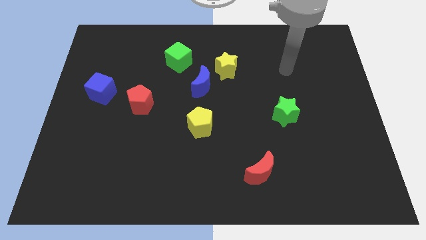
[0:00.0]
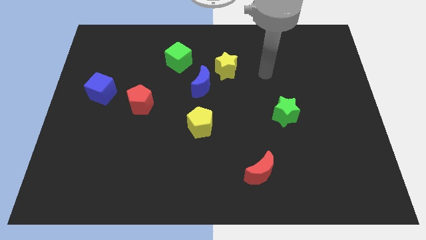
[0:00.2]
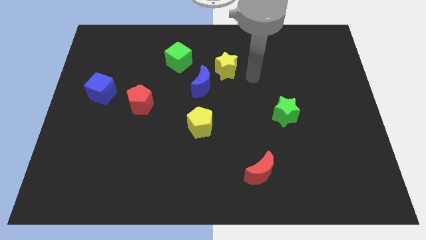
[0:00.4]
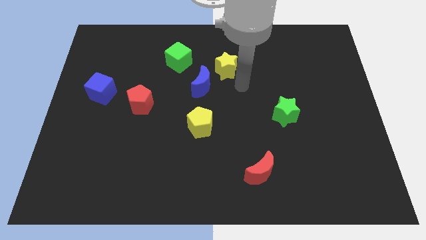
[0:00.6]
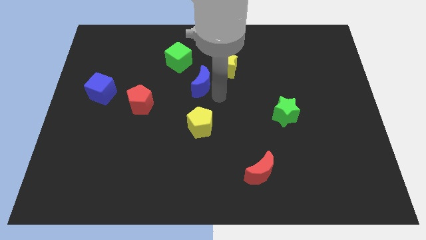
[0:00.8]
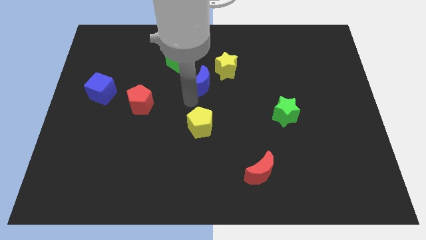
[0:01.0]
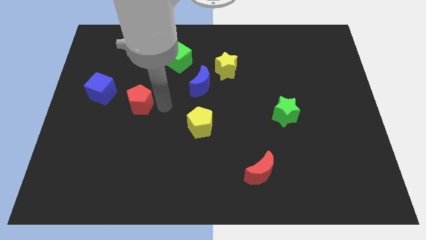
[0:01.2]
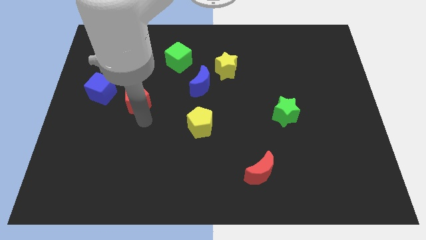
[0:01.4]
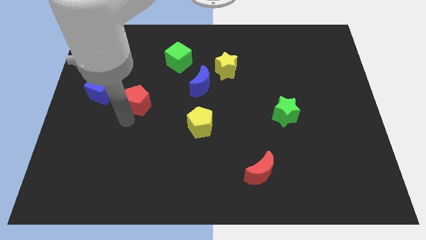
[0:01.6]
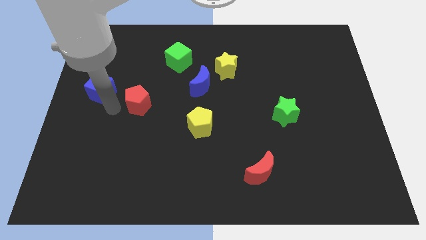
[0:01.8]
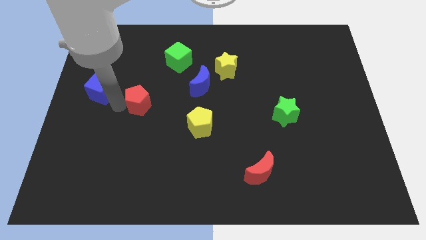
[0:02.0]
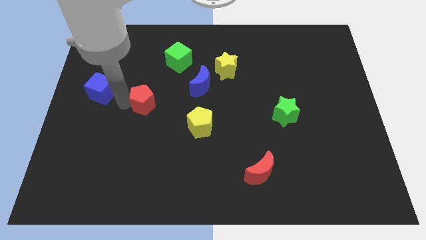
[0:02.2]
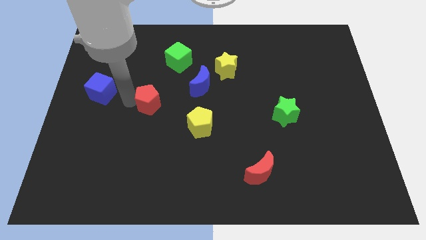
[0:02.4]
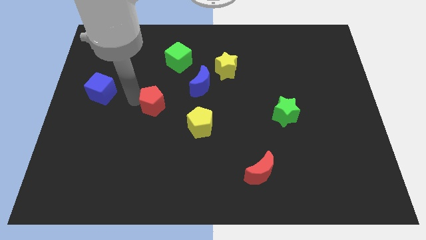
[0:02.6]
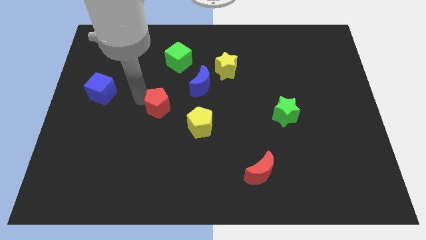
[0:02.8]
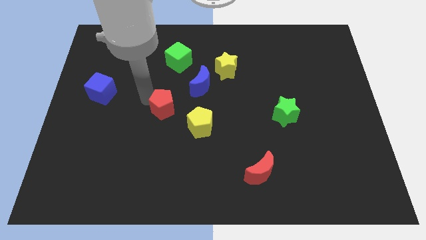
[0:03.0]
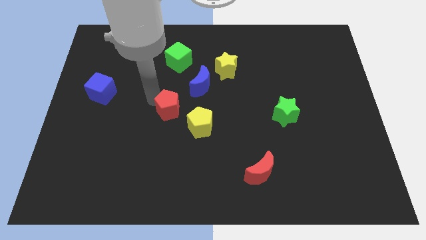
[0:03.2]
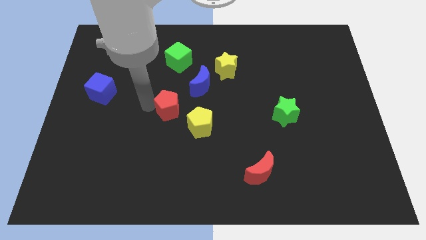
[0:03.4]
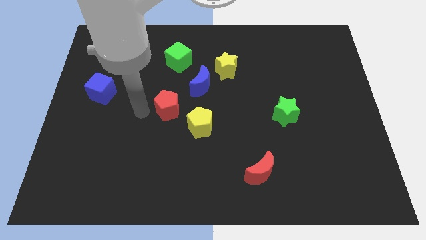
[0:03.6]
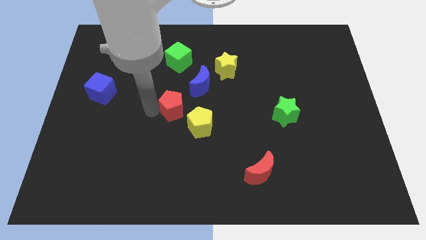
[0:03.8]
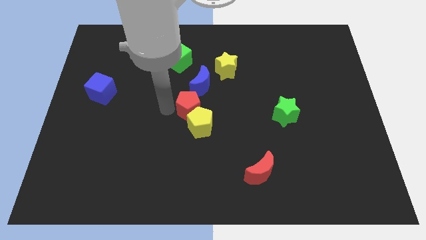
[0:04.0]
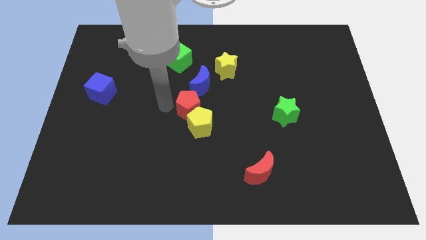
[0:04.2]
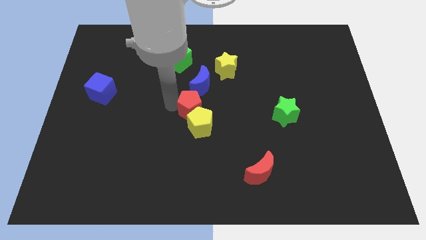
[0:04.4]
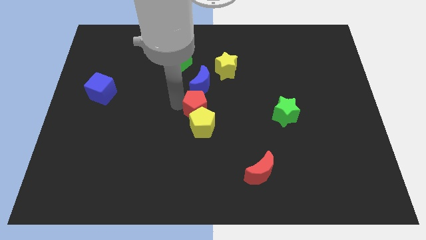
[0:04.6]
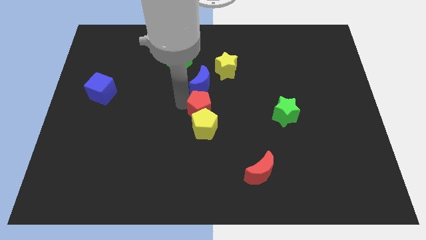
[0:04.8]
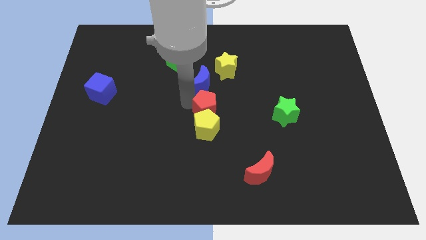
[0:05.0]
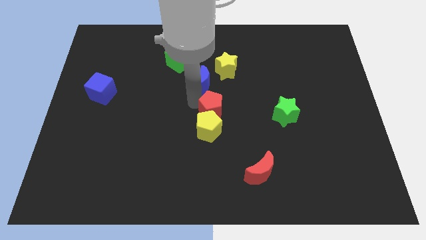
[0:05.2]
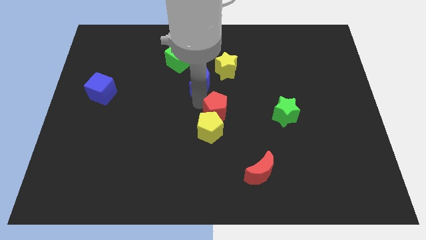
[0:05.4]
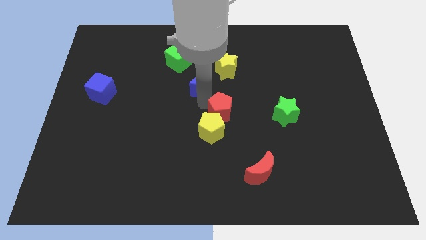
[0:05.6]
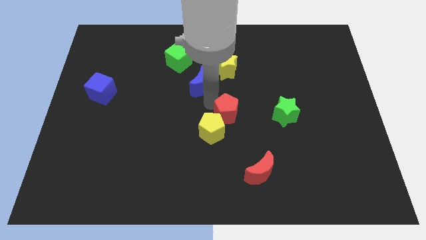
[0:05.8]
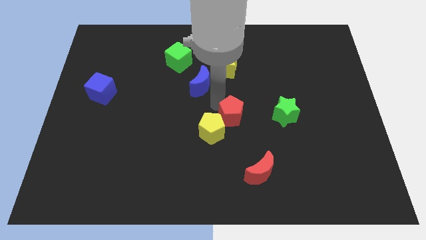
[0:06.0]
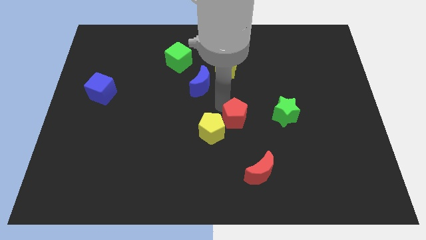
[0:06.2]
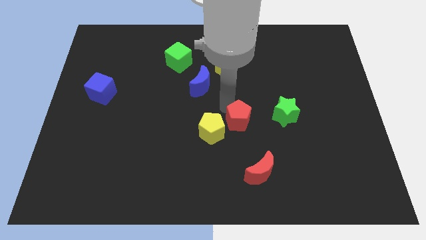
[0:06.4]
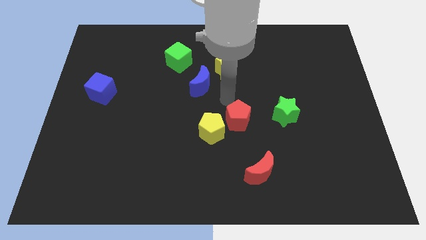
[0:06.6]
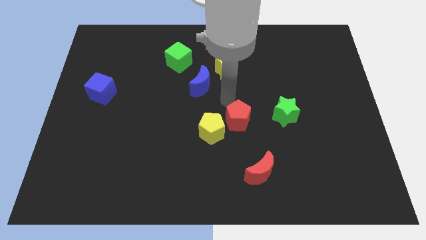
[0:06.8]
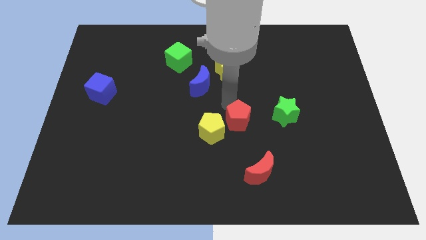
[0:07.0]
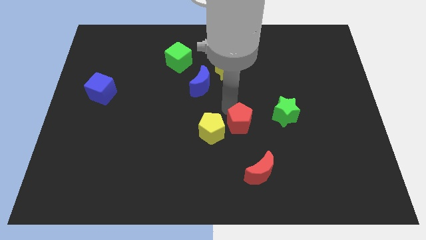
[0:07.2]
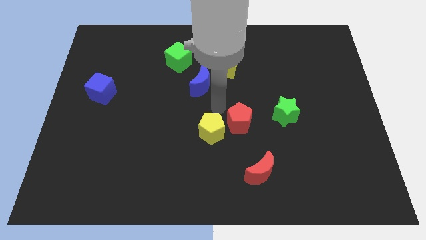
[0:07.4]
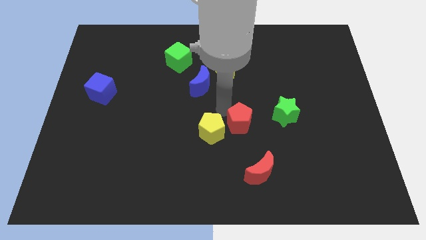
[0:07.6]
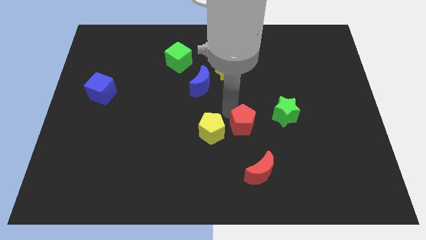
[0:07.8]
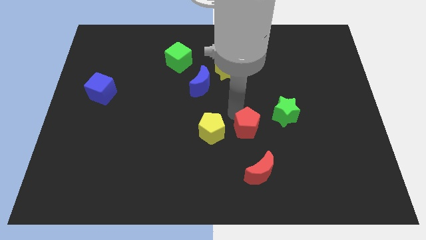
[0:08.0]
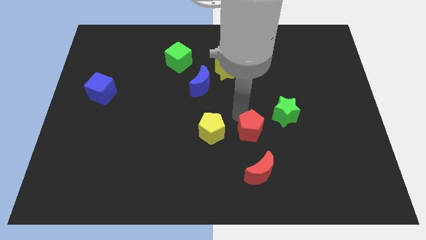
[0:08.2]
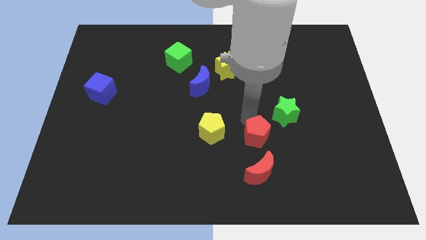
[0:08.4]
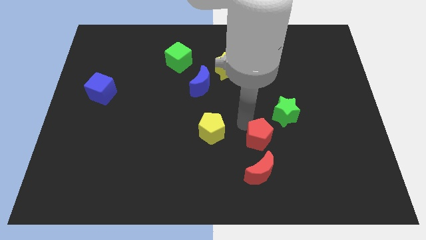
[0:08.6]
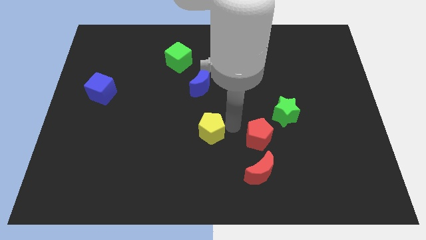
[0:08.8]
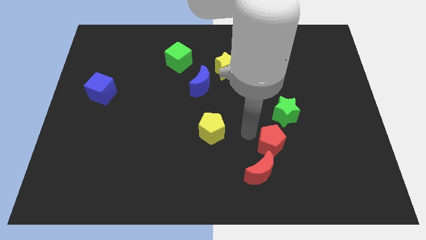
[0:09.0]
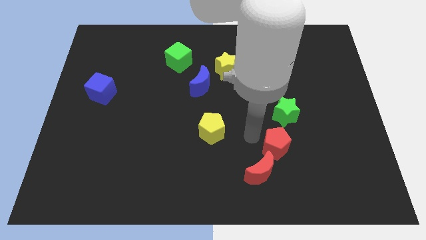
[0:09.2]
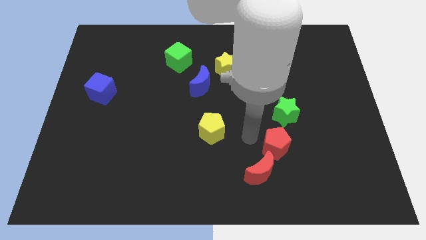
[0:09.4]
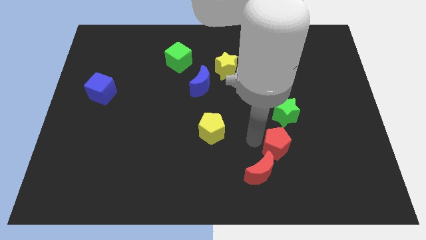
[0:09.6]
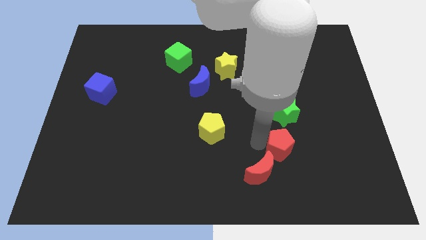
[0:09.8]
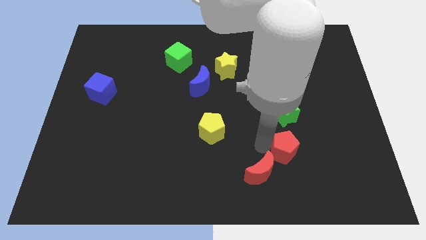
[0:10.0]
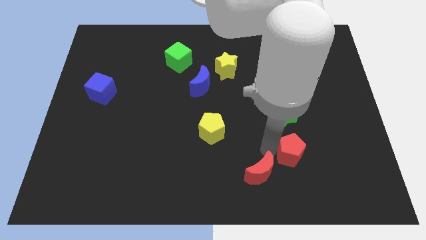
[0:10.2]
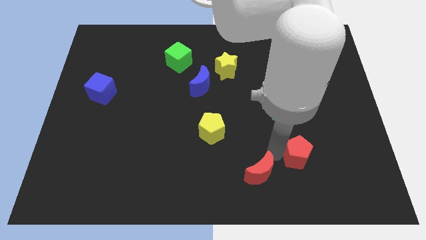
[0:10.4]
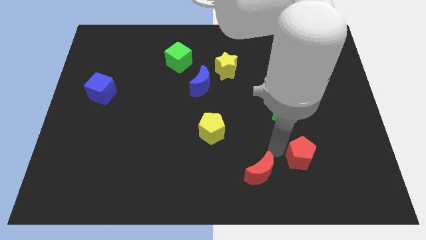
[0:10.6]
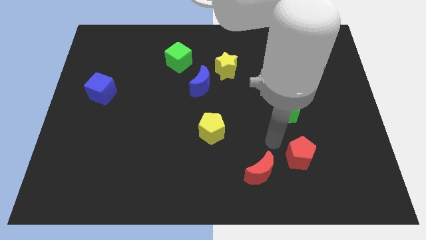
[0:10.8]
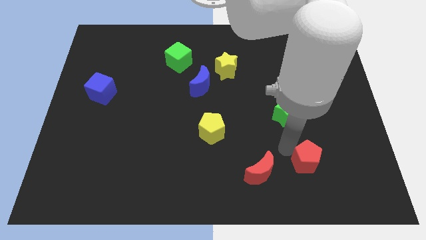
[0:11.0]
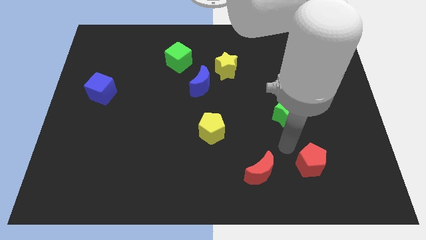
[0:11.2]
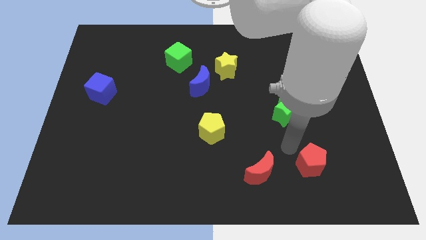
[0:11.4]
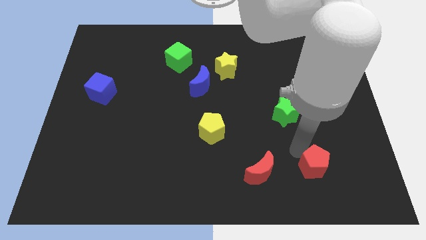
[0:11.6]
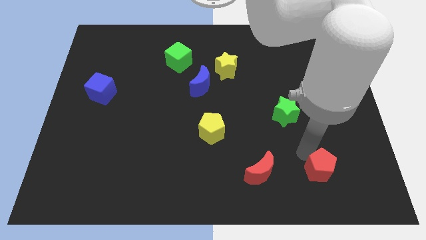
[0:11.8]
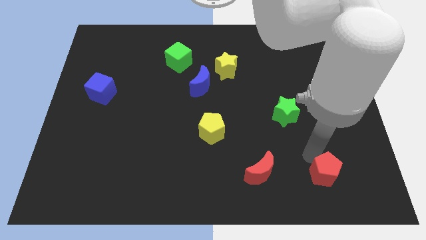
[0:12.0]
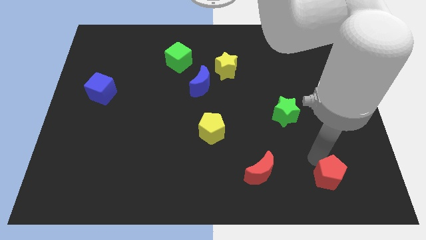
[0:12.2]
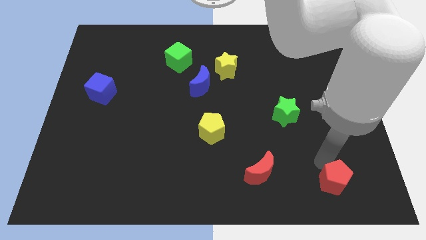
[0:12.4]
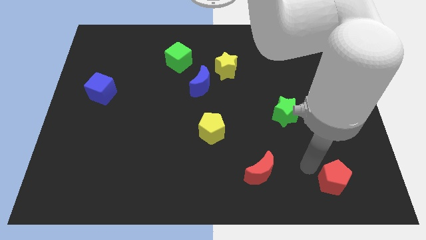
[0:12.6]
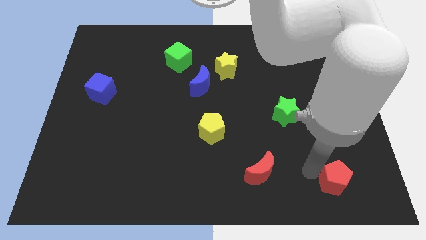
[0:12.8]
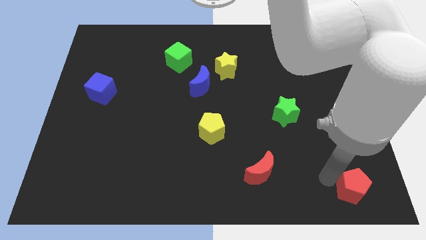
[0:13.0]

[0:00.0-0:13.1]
move the red pentagon to the bottom right
